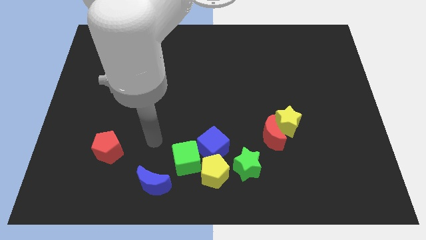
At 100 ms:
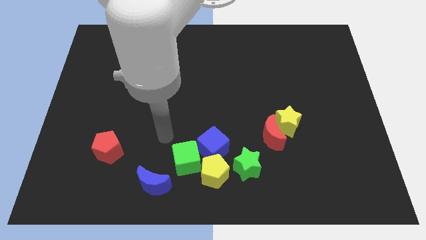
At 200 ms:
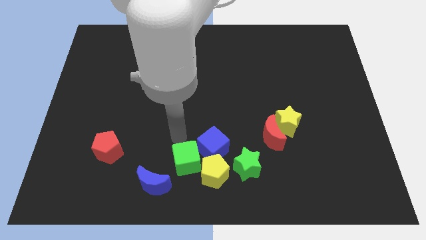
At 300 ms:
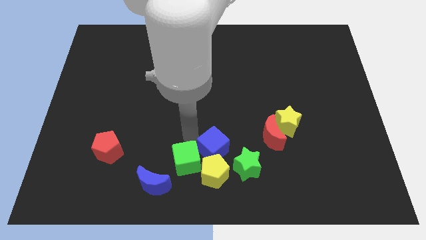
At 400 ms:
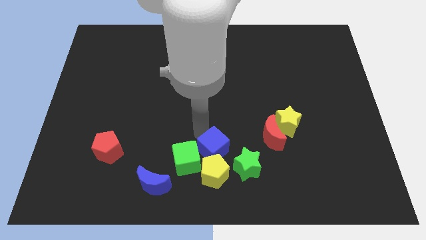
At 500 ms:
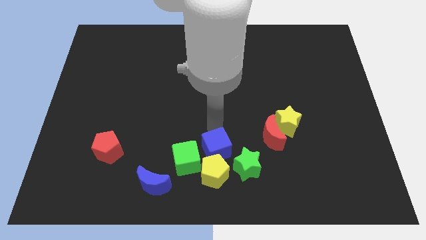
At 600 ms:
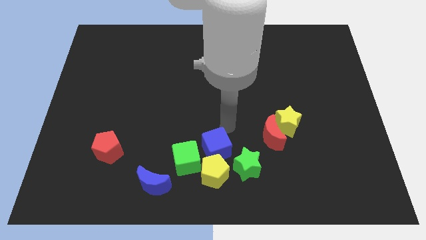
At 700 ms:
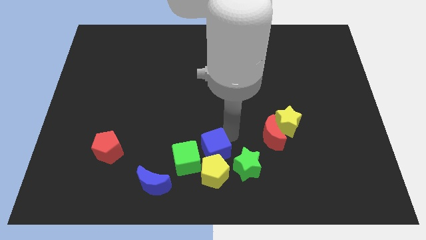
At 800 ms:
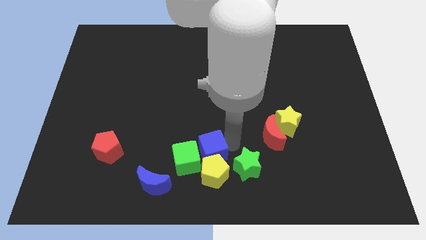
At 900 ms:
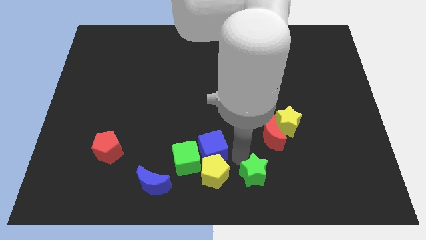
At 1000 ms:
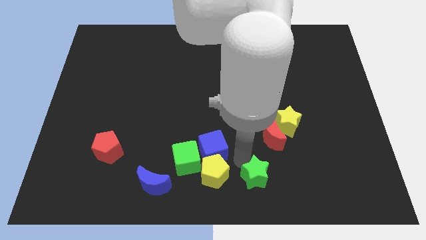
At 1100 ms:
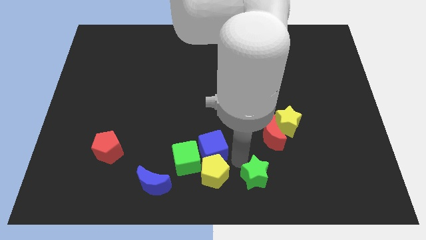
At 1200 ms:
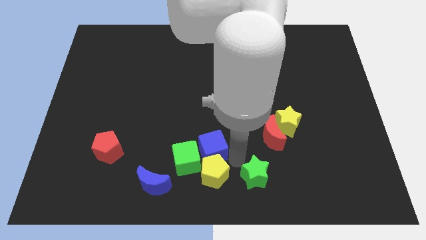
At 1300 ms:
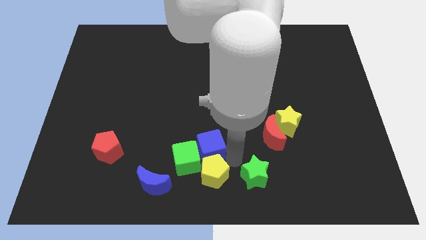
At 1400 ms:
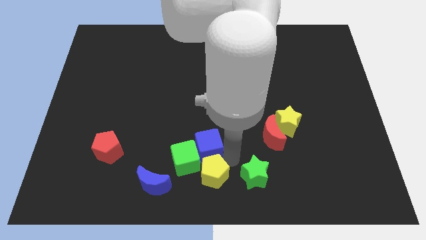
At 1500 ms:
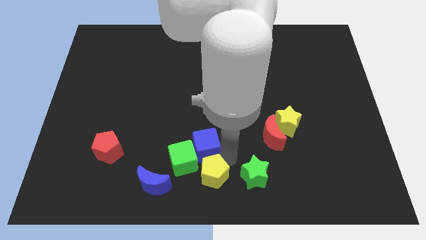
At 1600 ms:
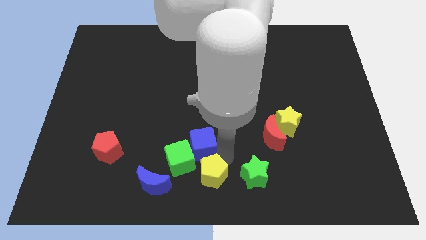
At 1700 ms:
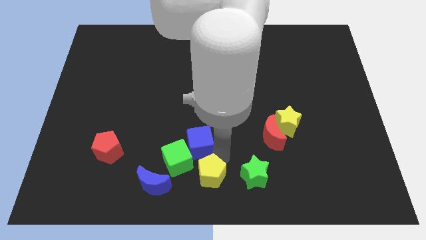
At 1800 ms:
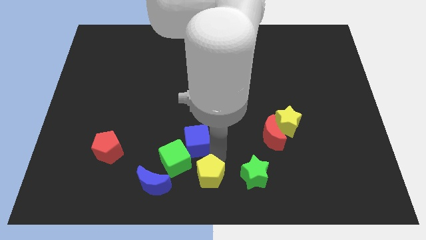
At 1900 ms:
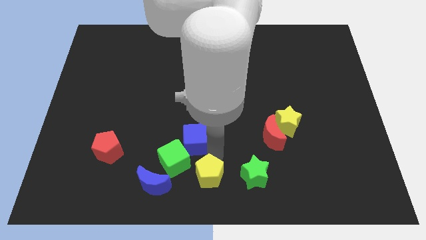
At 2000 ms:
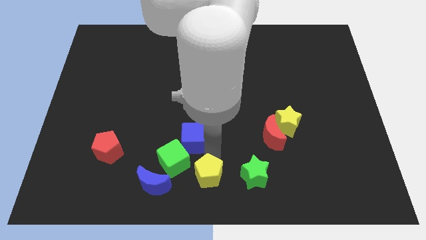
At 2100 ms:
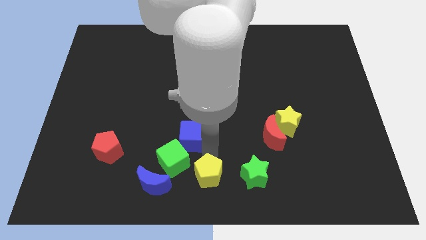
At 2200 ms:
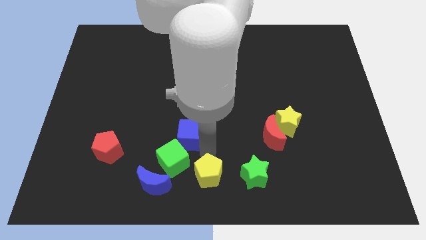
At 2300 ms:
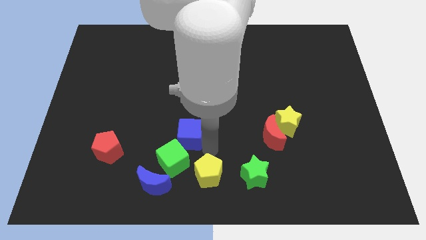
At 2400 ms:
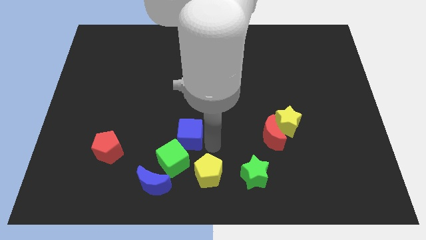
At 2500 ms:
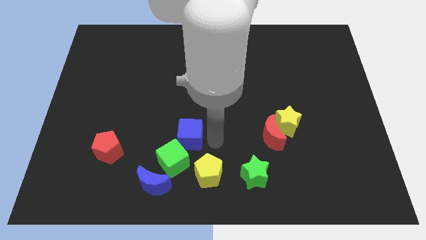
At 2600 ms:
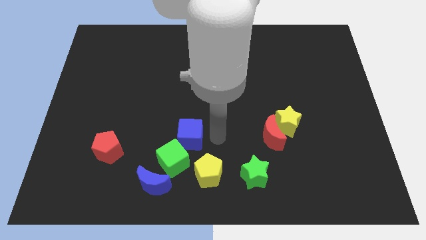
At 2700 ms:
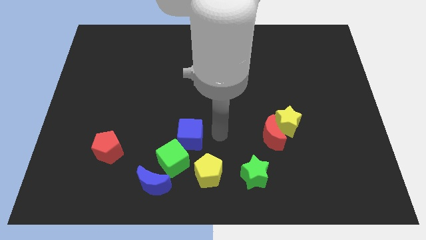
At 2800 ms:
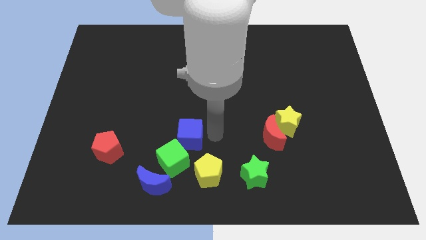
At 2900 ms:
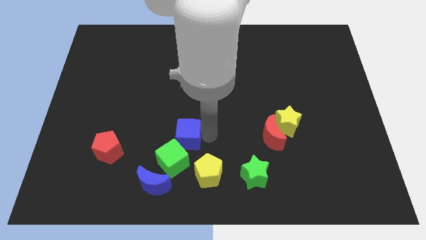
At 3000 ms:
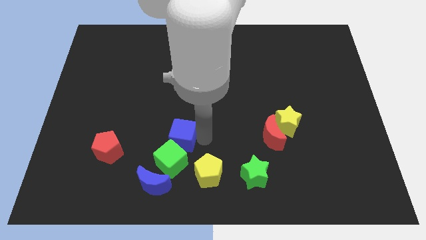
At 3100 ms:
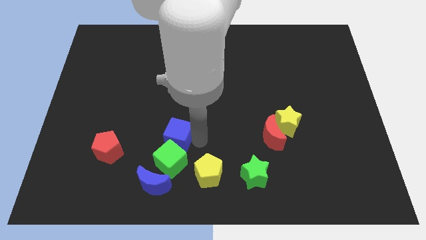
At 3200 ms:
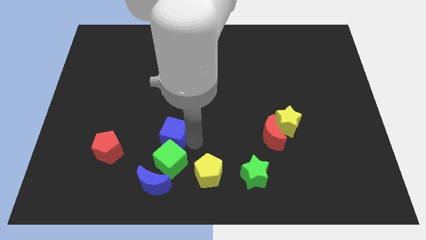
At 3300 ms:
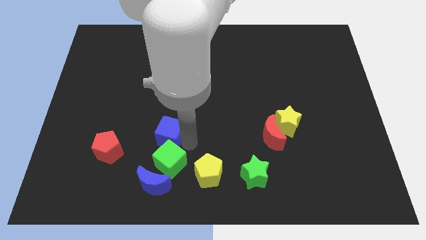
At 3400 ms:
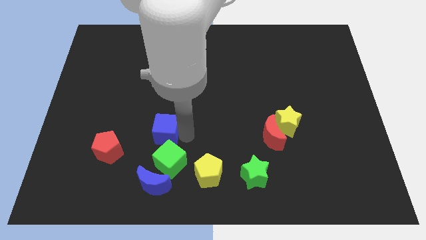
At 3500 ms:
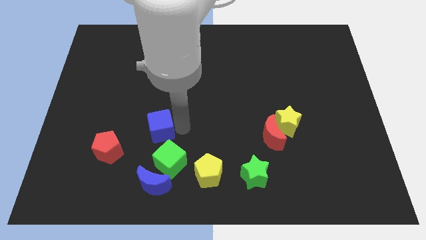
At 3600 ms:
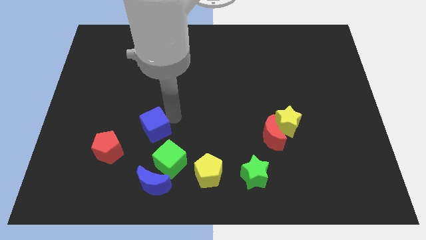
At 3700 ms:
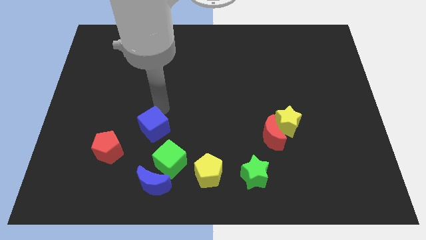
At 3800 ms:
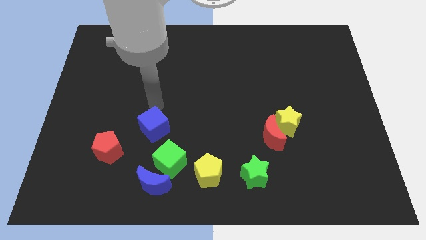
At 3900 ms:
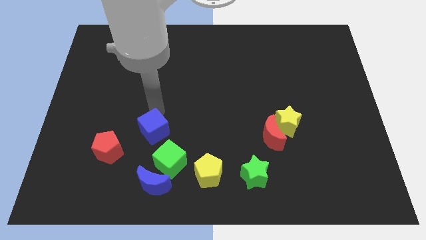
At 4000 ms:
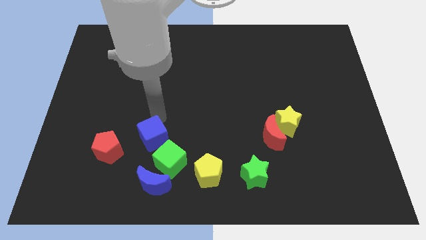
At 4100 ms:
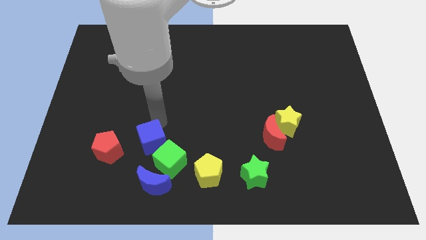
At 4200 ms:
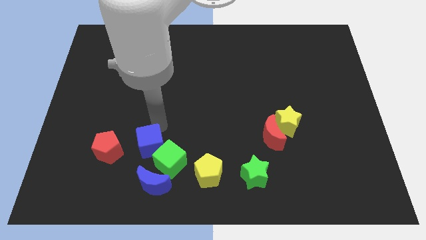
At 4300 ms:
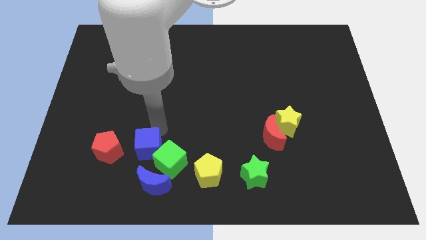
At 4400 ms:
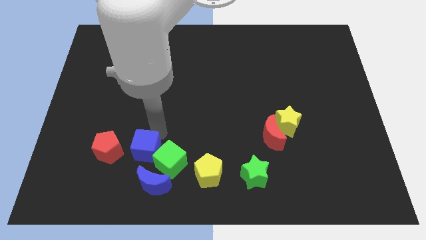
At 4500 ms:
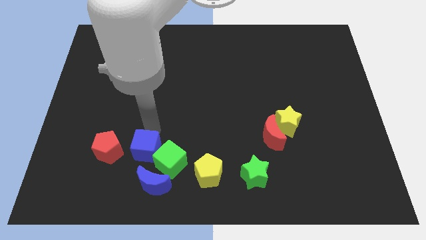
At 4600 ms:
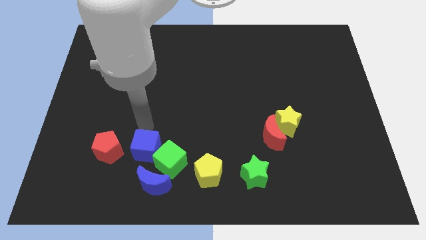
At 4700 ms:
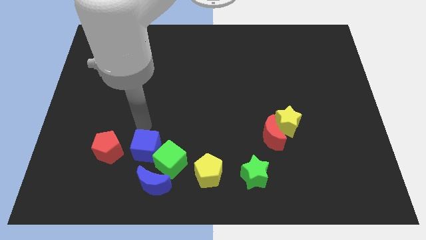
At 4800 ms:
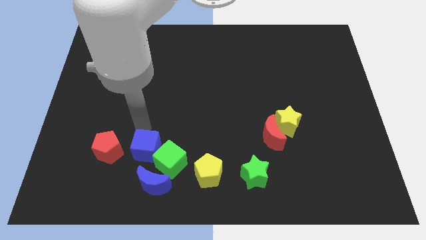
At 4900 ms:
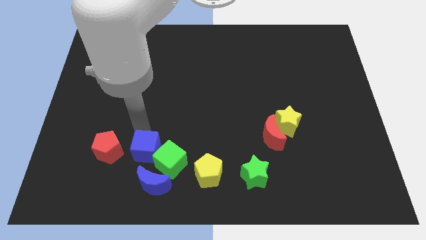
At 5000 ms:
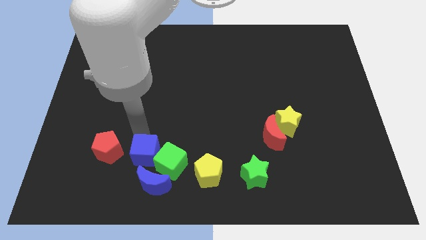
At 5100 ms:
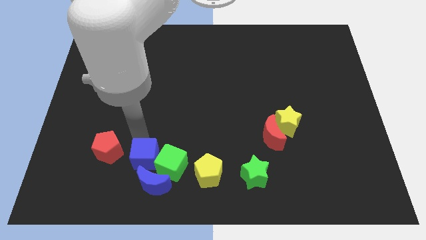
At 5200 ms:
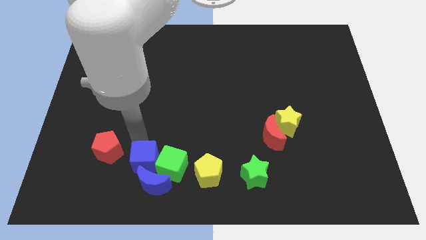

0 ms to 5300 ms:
put the blue cube close to the blue moon

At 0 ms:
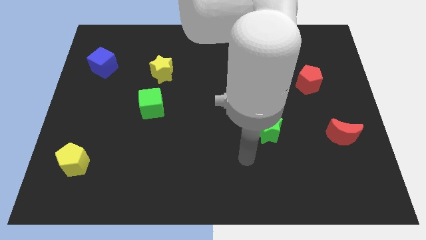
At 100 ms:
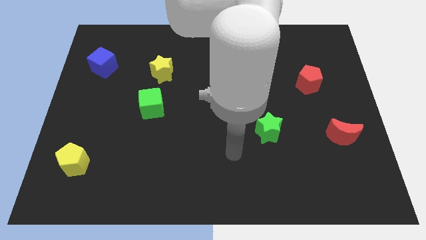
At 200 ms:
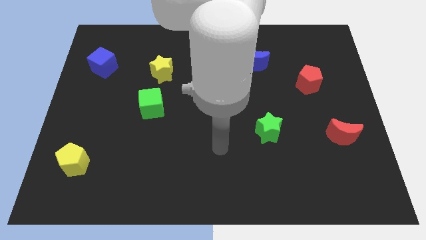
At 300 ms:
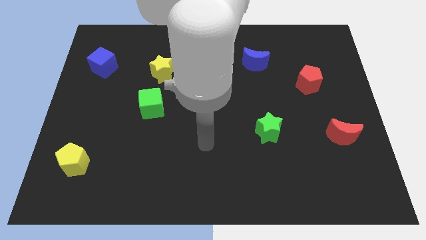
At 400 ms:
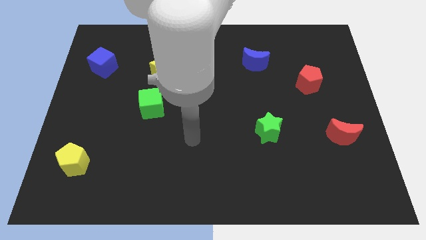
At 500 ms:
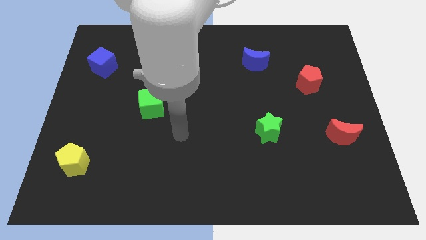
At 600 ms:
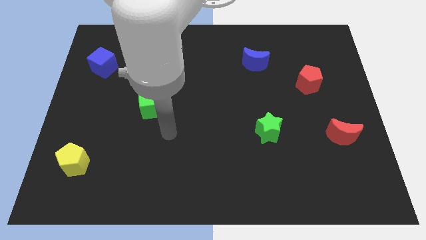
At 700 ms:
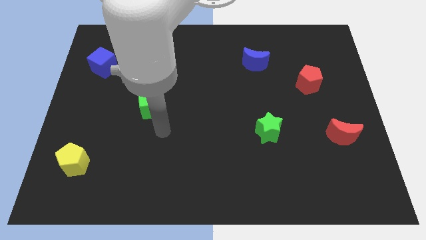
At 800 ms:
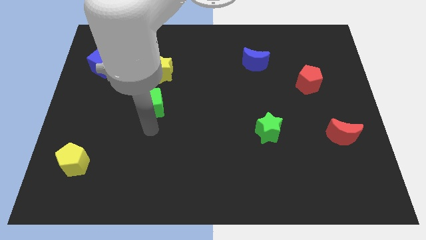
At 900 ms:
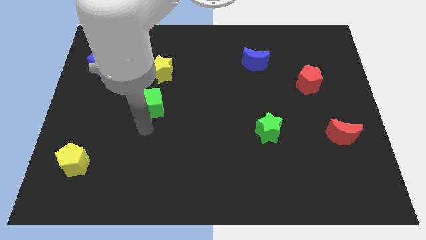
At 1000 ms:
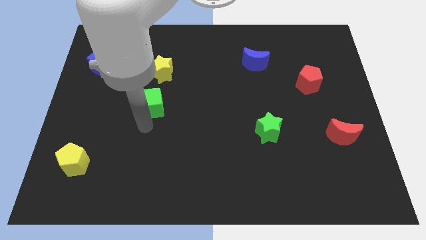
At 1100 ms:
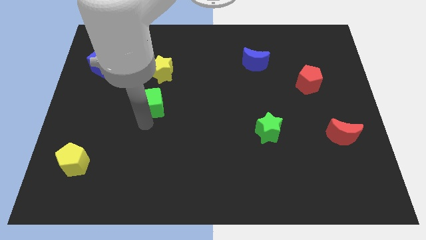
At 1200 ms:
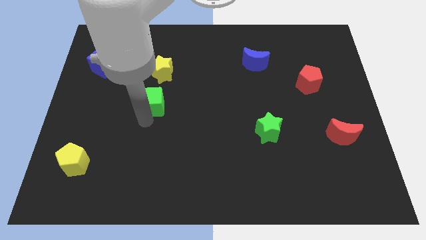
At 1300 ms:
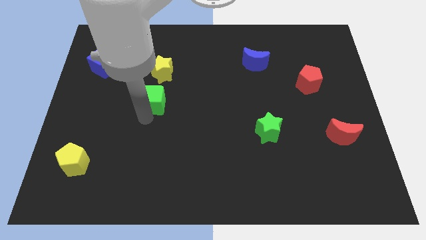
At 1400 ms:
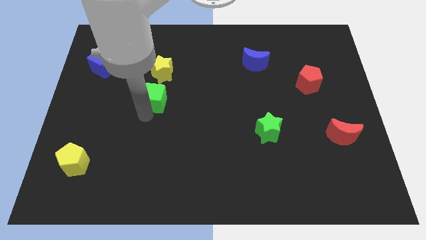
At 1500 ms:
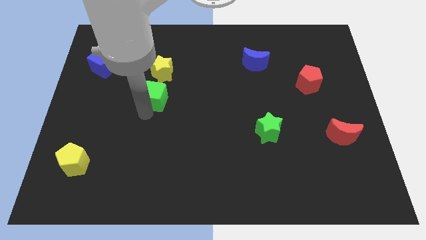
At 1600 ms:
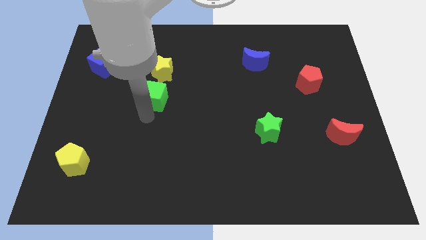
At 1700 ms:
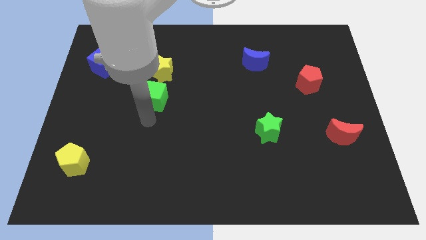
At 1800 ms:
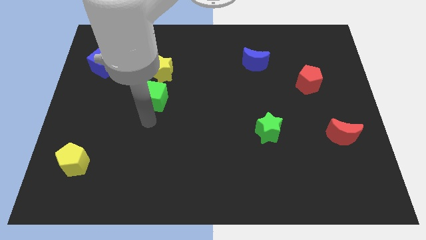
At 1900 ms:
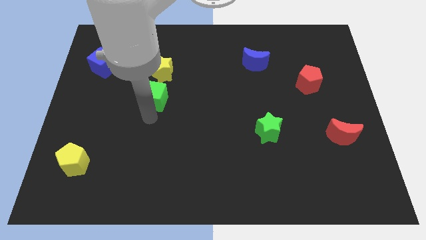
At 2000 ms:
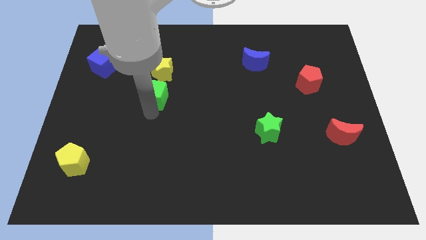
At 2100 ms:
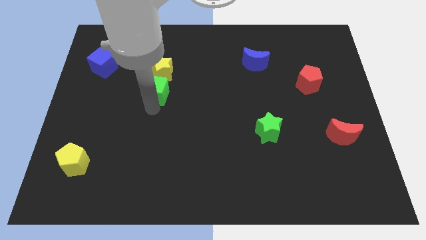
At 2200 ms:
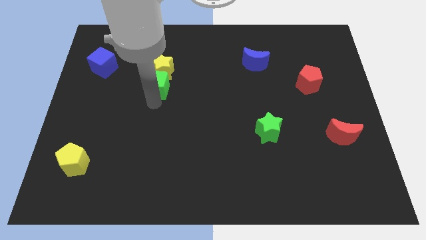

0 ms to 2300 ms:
push the green cube to the yellow star
